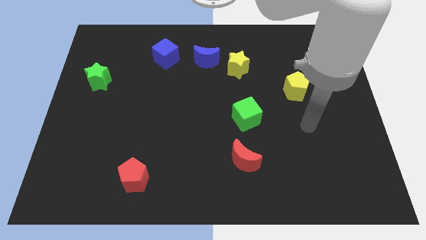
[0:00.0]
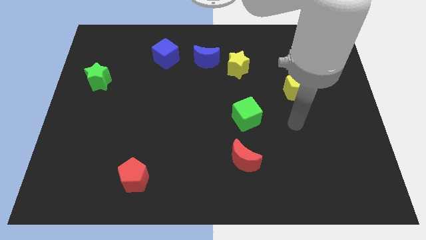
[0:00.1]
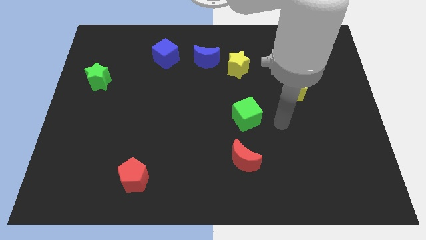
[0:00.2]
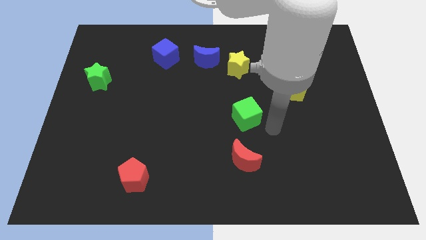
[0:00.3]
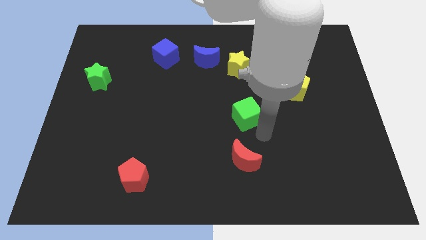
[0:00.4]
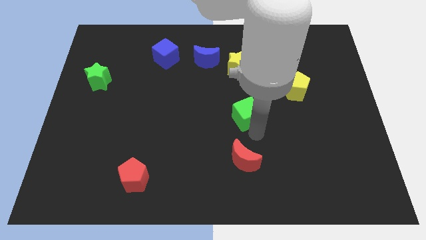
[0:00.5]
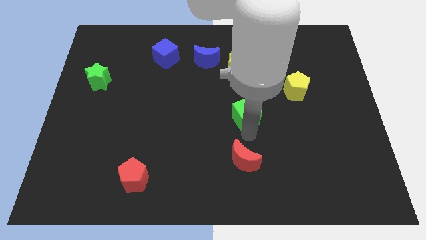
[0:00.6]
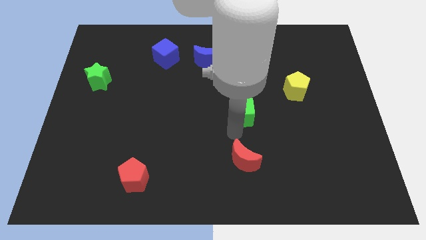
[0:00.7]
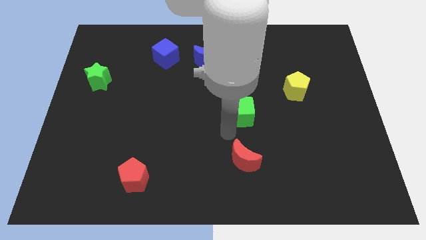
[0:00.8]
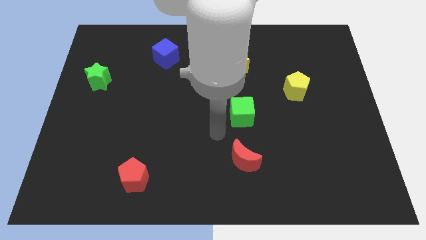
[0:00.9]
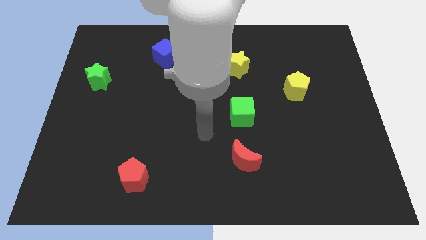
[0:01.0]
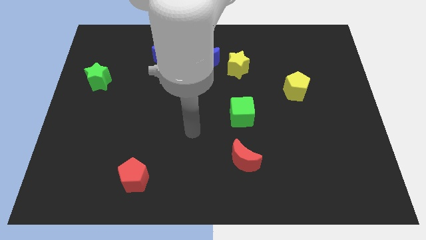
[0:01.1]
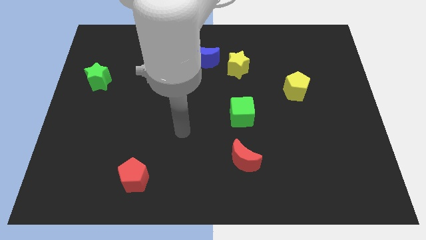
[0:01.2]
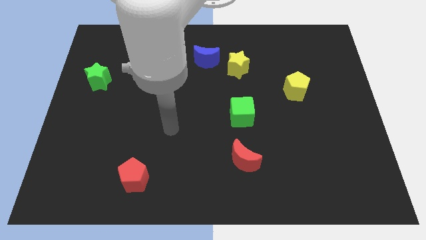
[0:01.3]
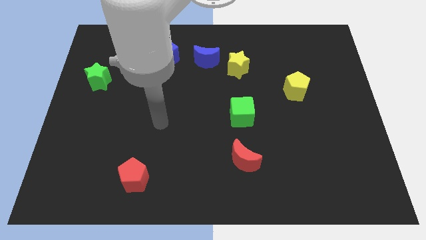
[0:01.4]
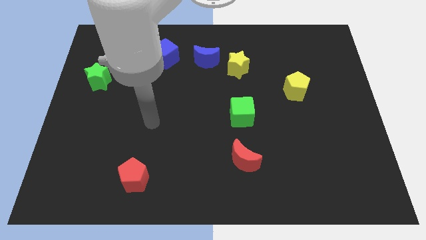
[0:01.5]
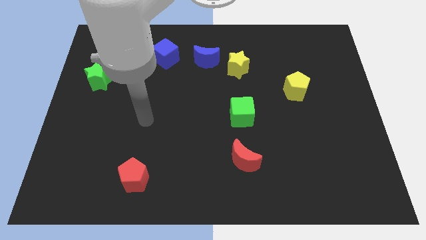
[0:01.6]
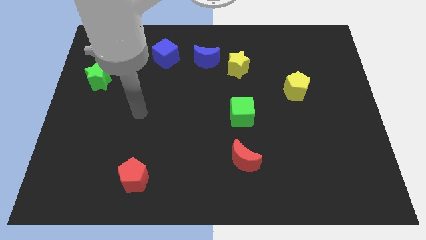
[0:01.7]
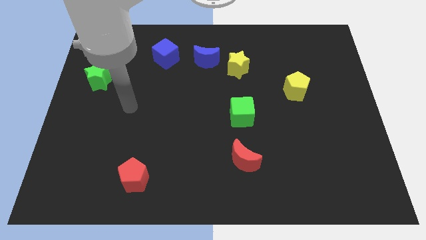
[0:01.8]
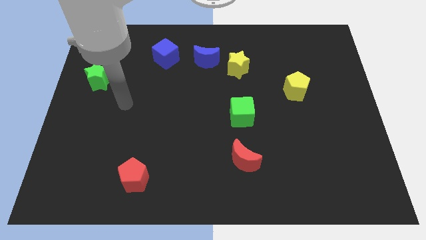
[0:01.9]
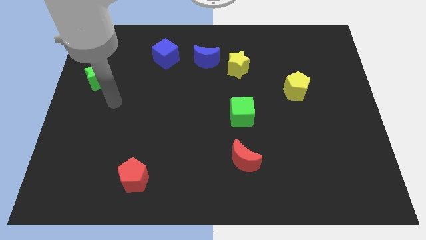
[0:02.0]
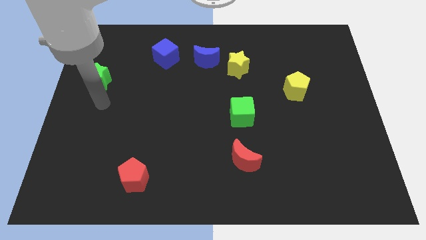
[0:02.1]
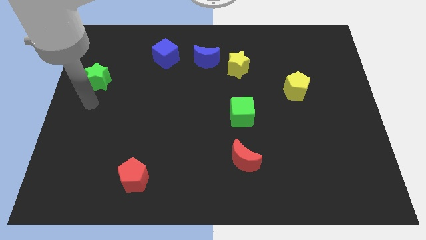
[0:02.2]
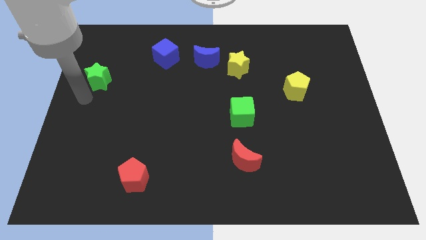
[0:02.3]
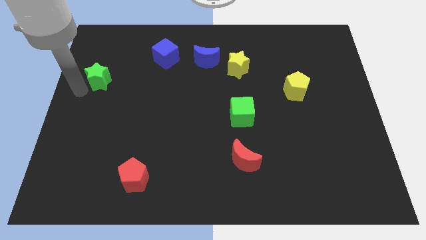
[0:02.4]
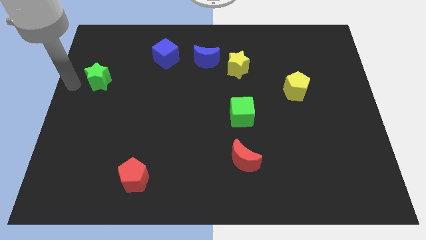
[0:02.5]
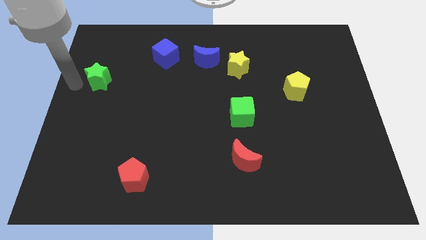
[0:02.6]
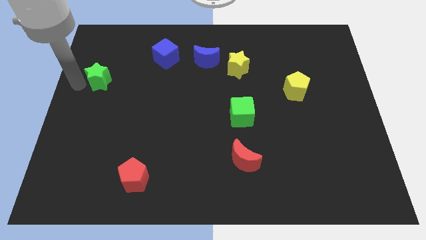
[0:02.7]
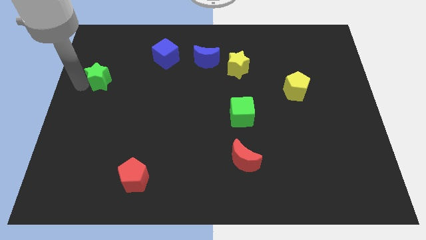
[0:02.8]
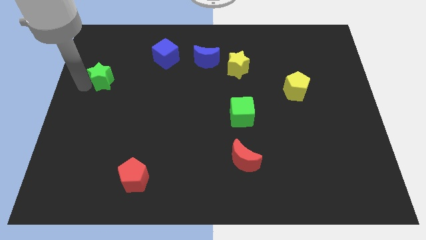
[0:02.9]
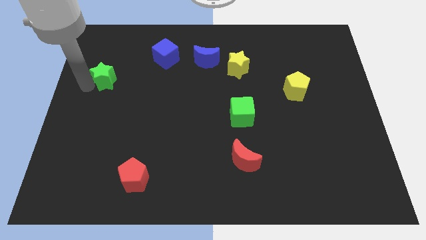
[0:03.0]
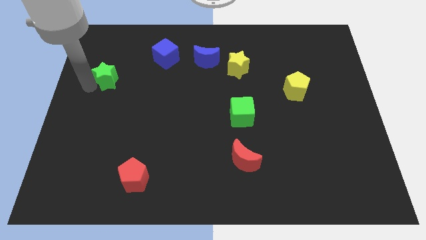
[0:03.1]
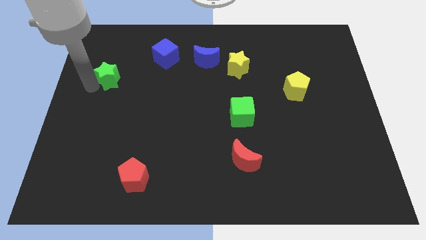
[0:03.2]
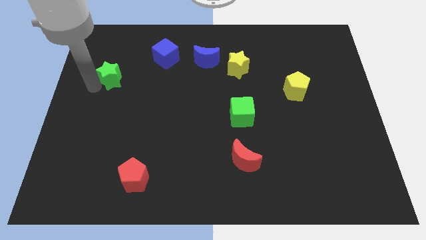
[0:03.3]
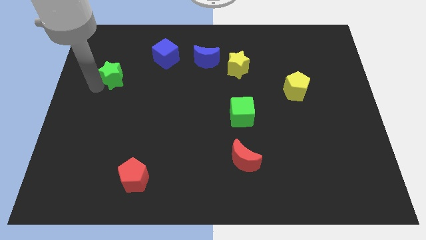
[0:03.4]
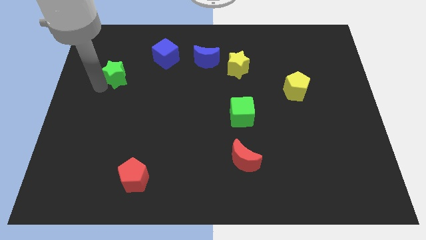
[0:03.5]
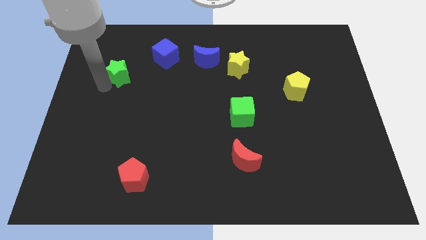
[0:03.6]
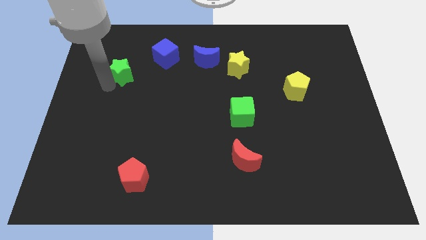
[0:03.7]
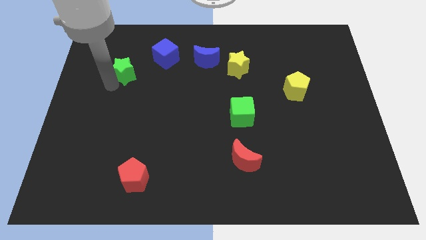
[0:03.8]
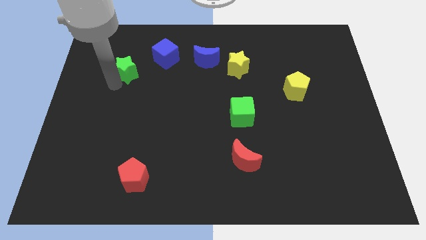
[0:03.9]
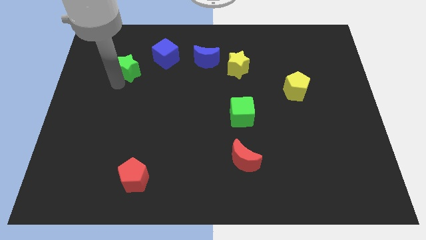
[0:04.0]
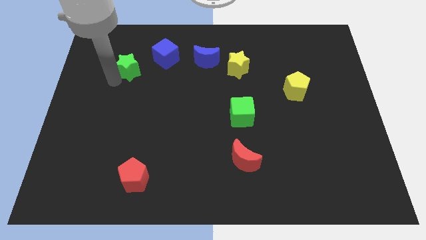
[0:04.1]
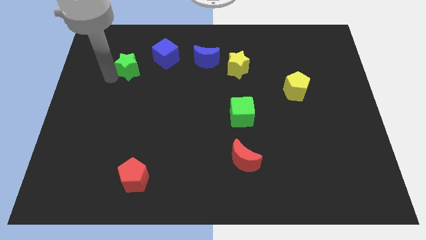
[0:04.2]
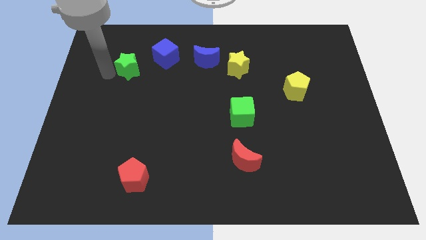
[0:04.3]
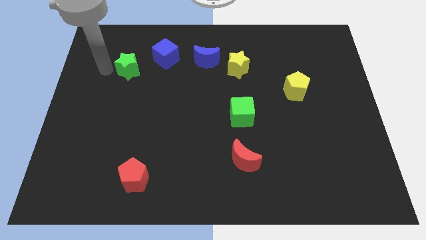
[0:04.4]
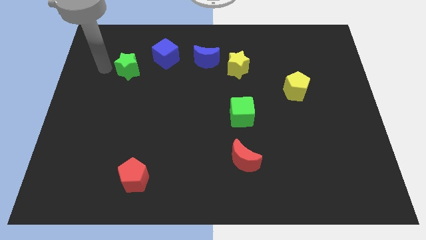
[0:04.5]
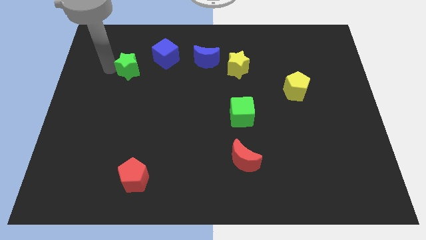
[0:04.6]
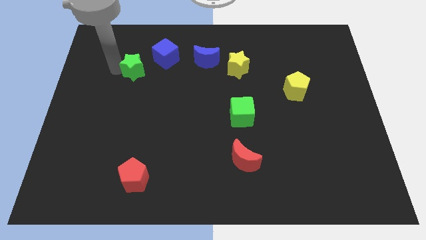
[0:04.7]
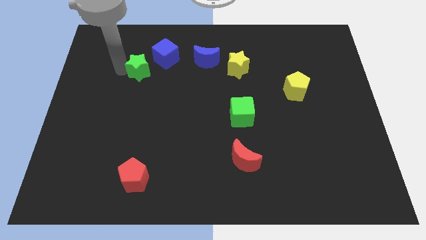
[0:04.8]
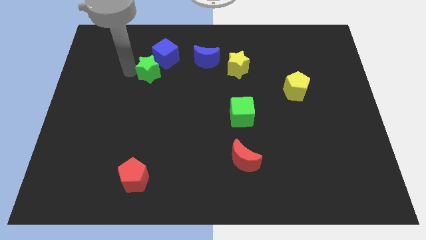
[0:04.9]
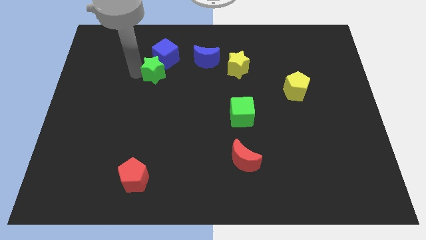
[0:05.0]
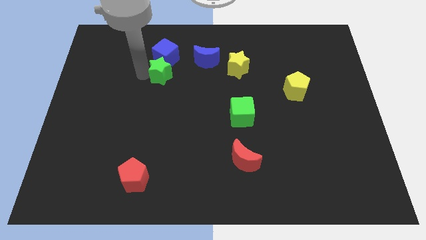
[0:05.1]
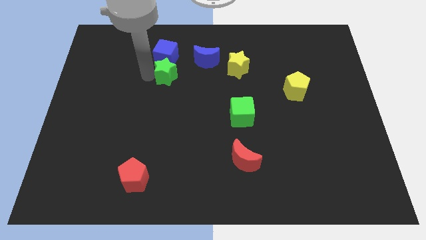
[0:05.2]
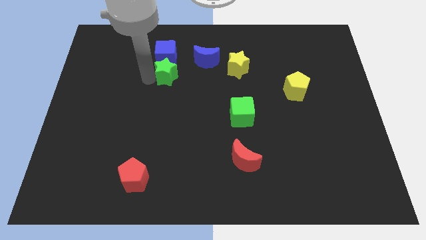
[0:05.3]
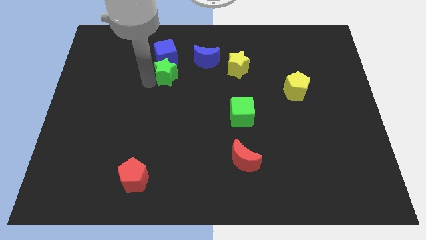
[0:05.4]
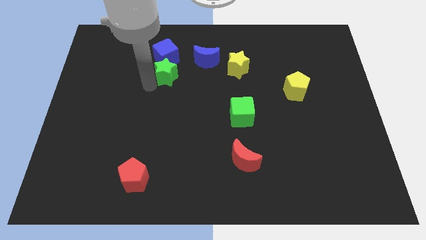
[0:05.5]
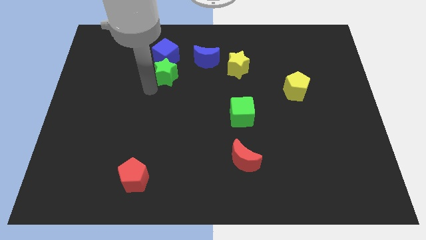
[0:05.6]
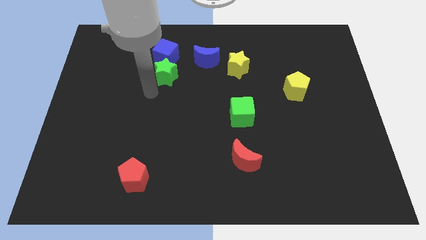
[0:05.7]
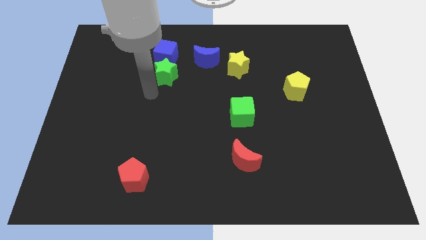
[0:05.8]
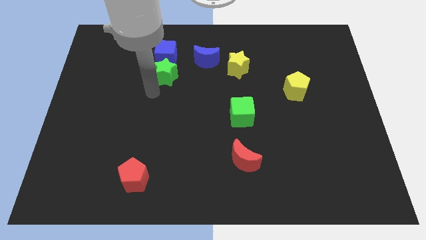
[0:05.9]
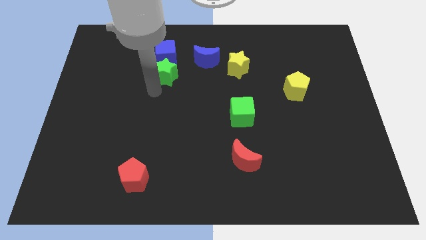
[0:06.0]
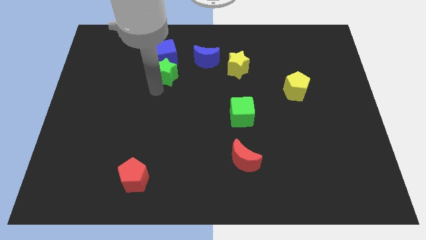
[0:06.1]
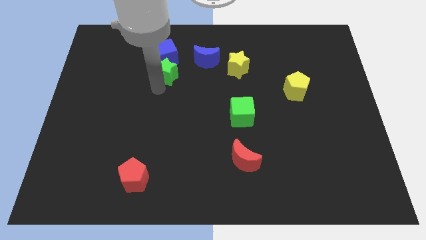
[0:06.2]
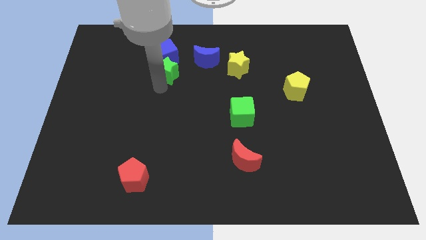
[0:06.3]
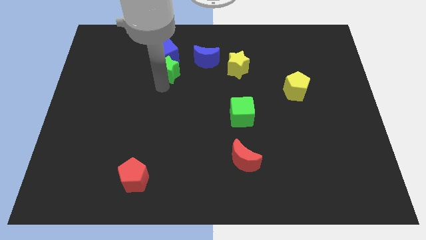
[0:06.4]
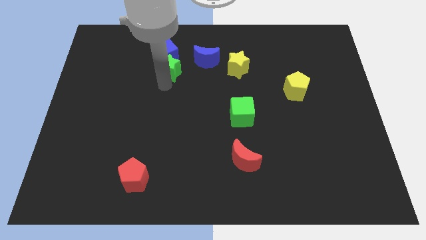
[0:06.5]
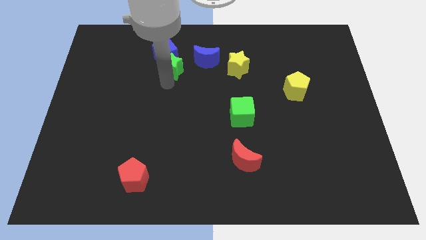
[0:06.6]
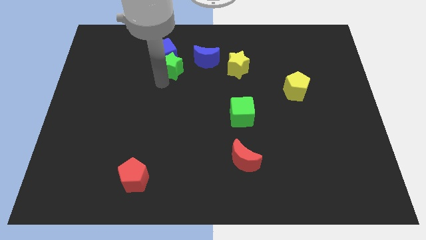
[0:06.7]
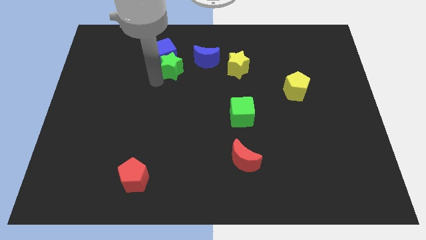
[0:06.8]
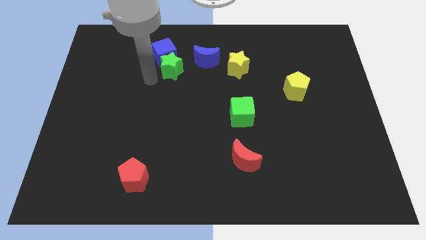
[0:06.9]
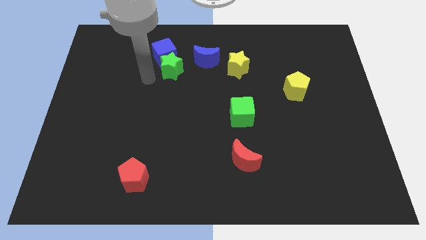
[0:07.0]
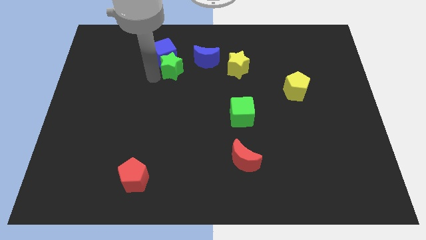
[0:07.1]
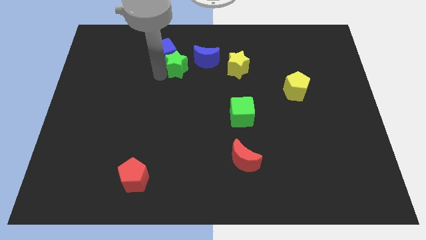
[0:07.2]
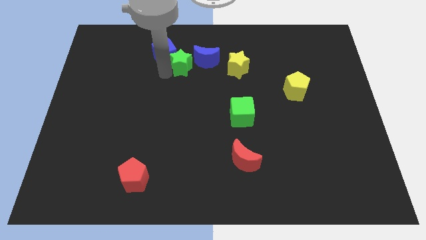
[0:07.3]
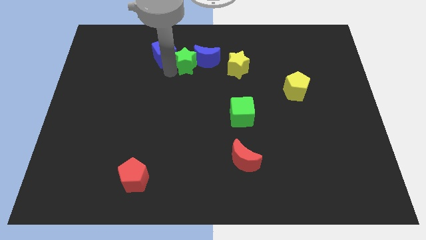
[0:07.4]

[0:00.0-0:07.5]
put the green star next to the blue moon
